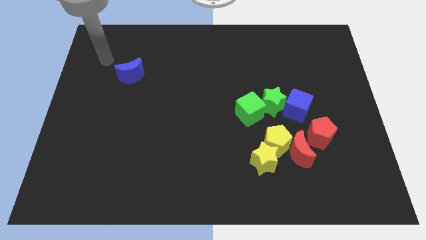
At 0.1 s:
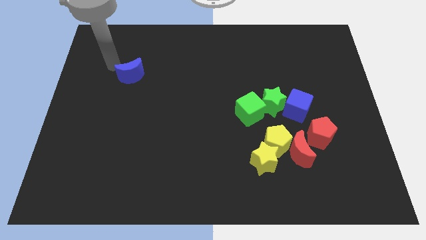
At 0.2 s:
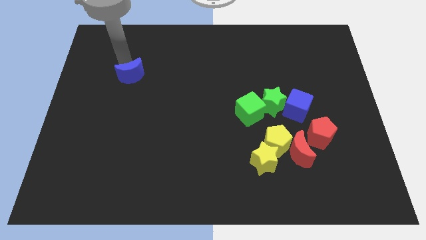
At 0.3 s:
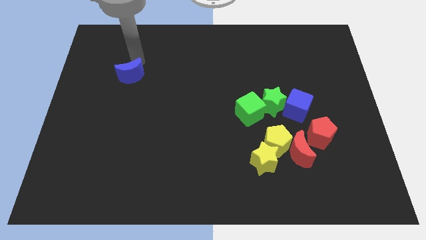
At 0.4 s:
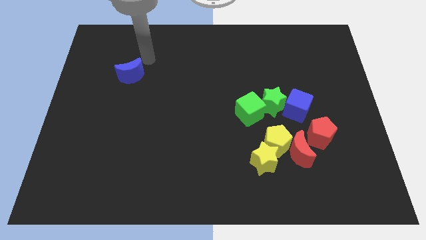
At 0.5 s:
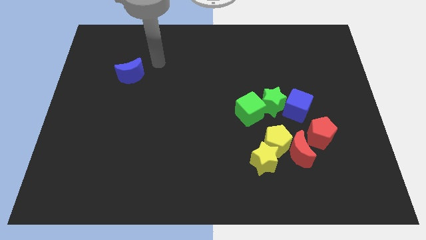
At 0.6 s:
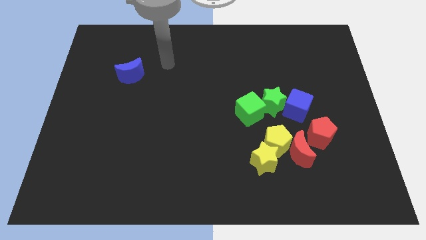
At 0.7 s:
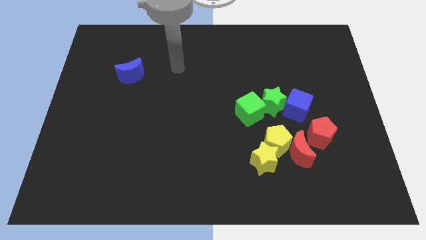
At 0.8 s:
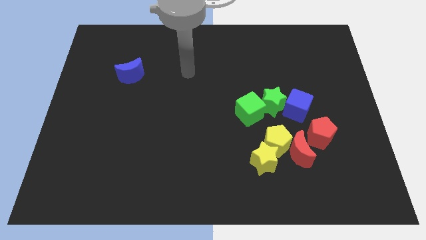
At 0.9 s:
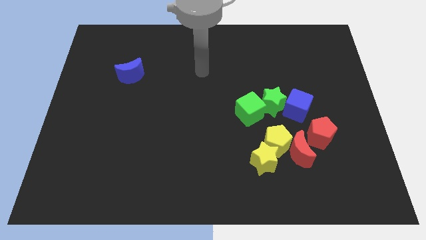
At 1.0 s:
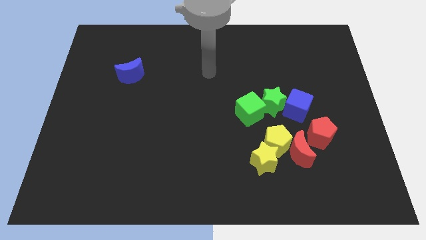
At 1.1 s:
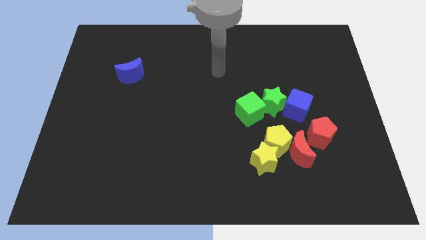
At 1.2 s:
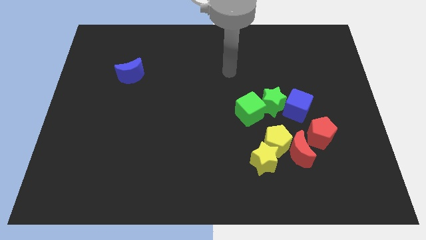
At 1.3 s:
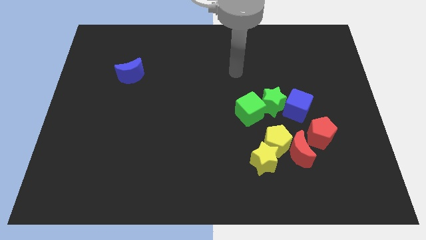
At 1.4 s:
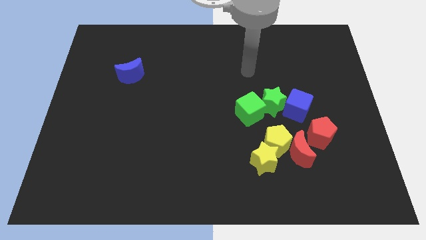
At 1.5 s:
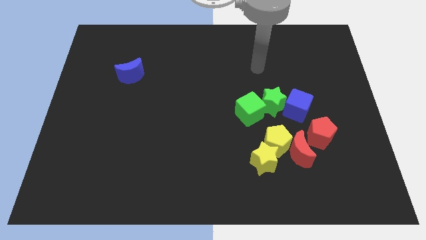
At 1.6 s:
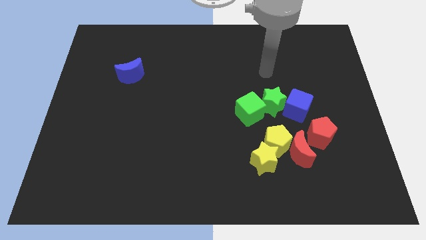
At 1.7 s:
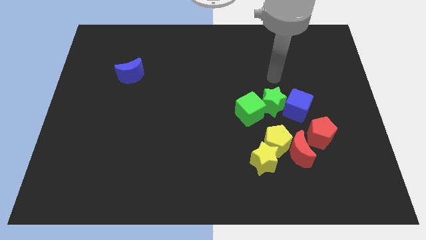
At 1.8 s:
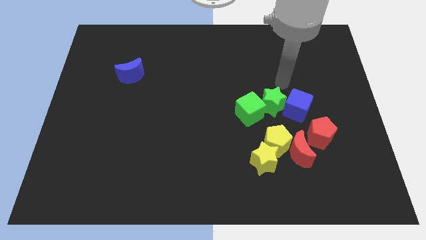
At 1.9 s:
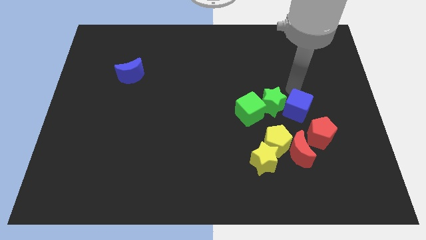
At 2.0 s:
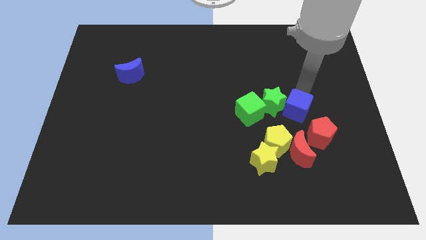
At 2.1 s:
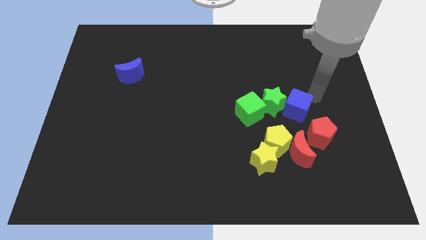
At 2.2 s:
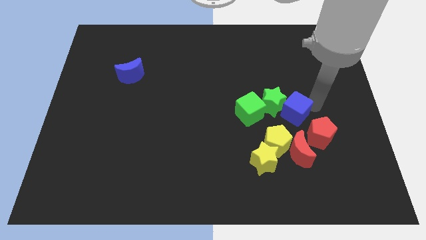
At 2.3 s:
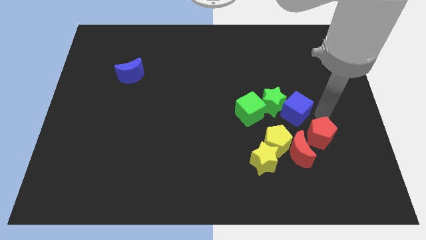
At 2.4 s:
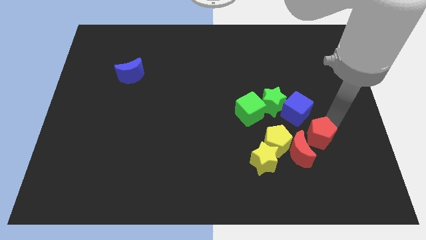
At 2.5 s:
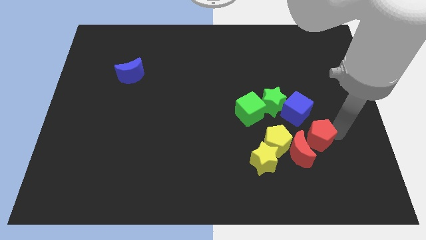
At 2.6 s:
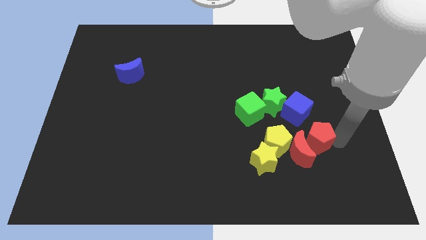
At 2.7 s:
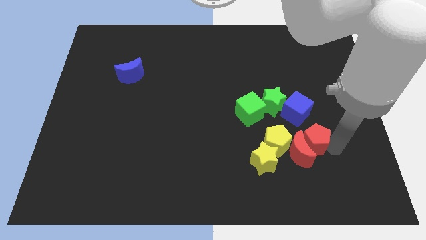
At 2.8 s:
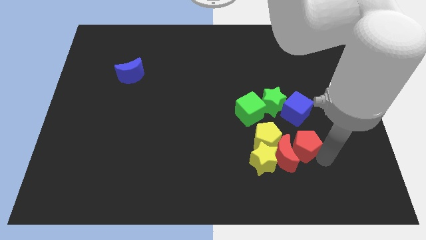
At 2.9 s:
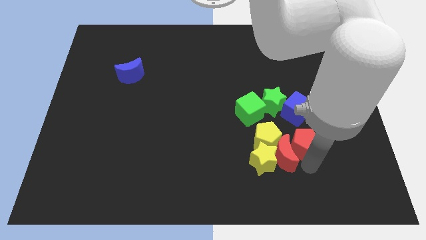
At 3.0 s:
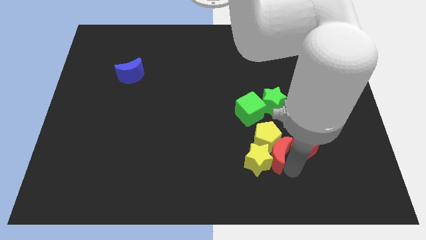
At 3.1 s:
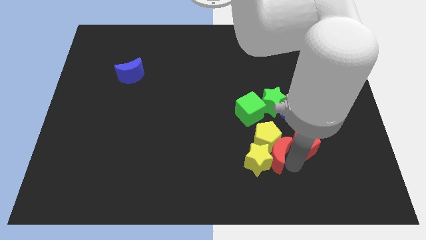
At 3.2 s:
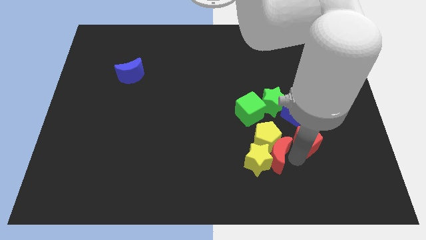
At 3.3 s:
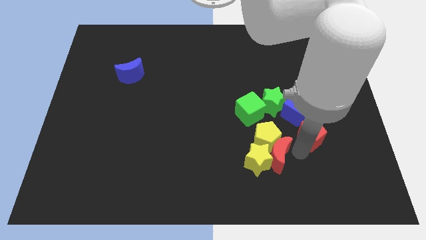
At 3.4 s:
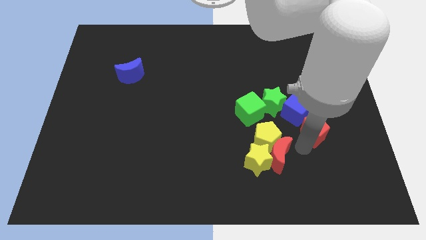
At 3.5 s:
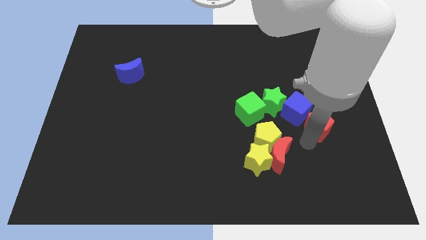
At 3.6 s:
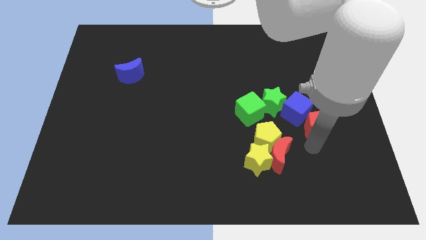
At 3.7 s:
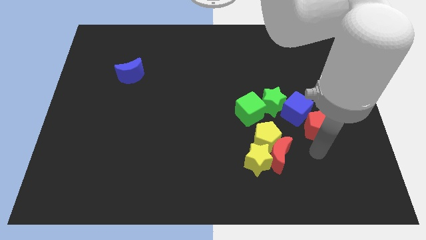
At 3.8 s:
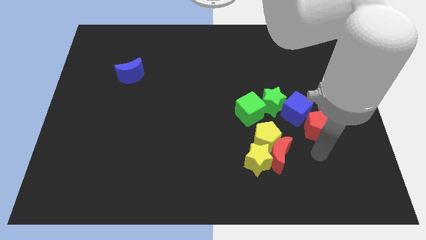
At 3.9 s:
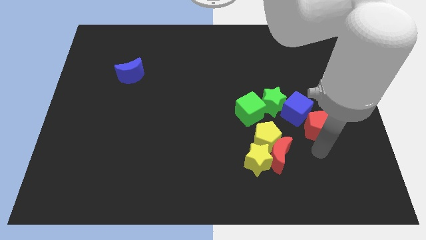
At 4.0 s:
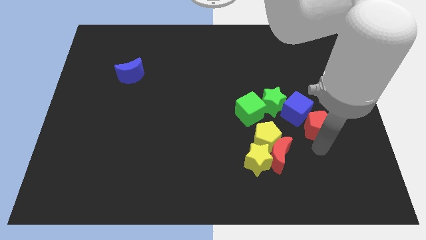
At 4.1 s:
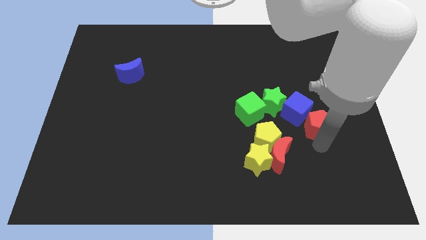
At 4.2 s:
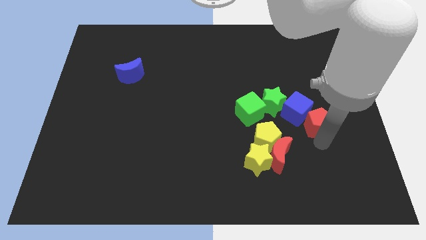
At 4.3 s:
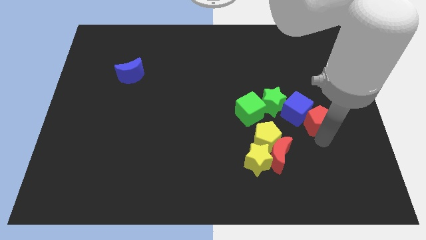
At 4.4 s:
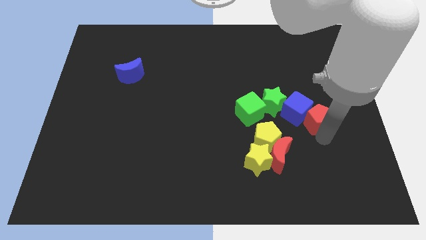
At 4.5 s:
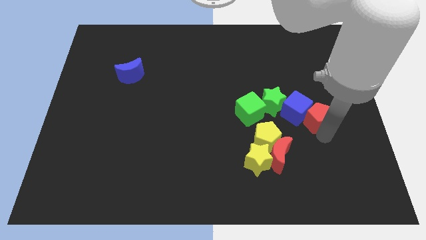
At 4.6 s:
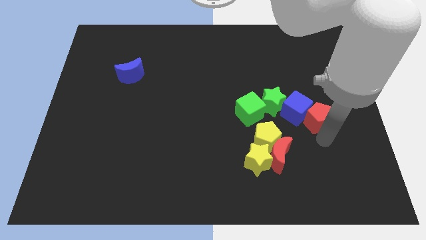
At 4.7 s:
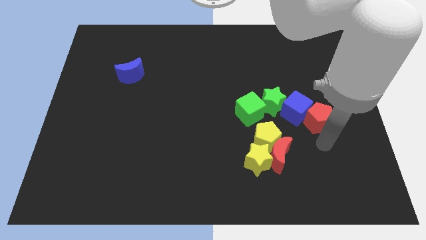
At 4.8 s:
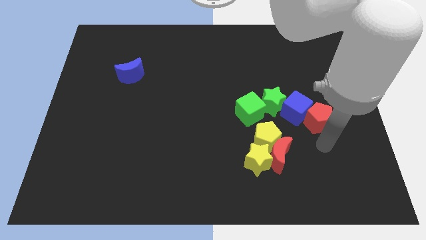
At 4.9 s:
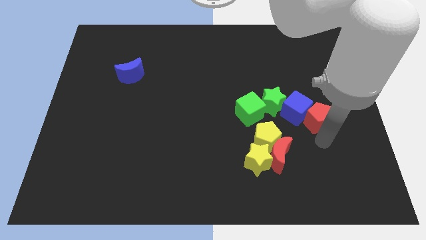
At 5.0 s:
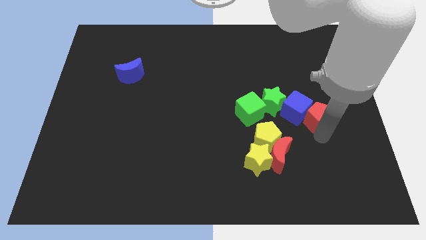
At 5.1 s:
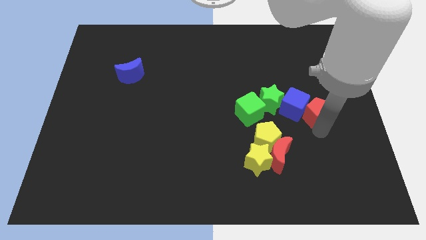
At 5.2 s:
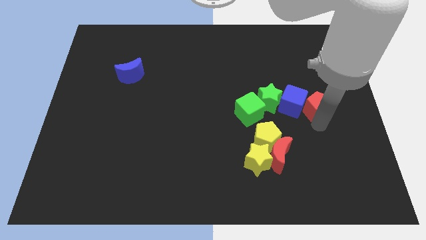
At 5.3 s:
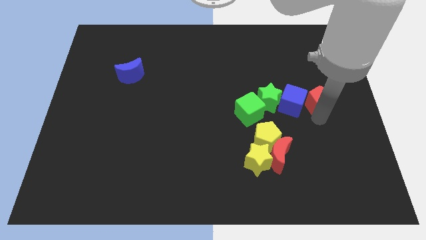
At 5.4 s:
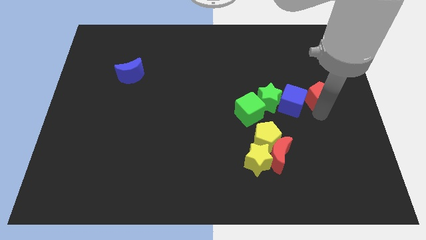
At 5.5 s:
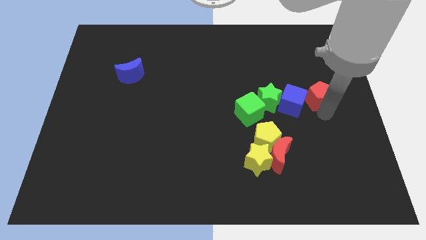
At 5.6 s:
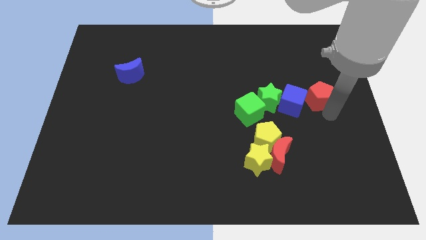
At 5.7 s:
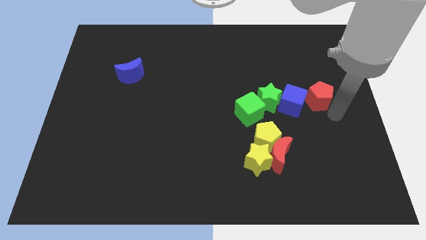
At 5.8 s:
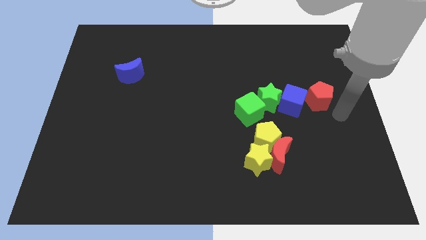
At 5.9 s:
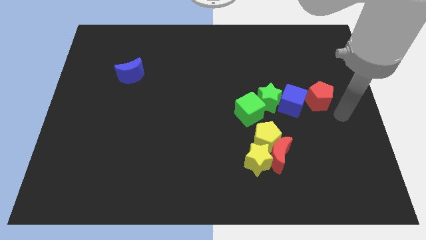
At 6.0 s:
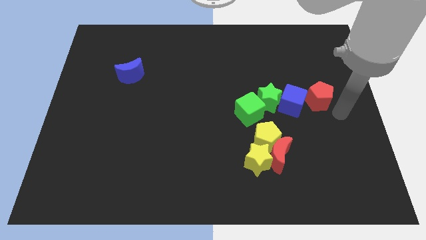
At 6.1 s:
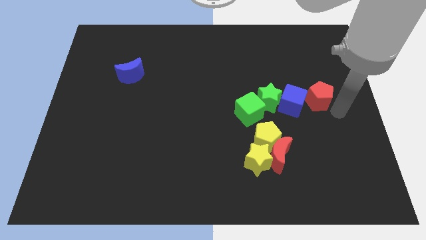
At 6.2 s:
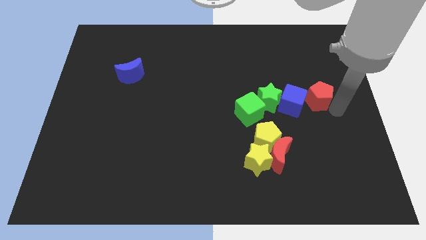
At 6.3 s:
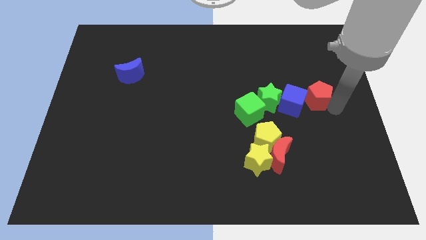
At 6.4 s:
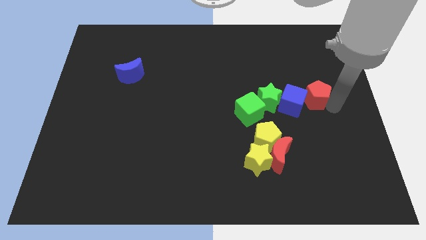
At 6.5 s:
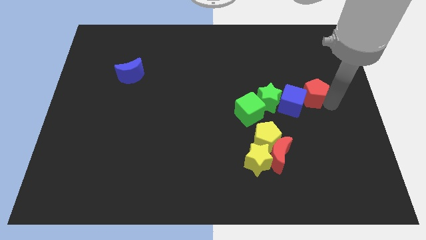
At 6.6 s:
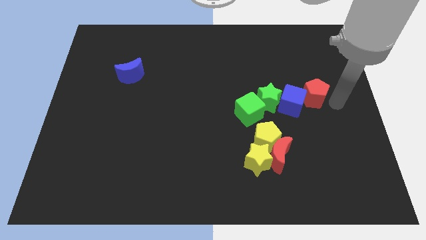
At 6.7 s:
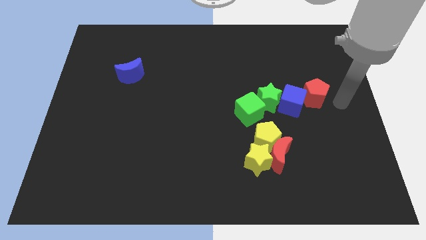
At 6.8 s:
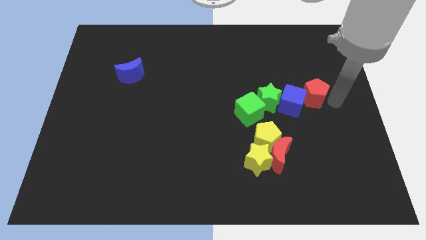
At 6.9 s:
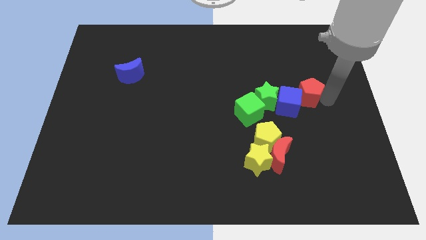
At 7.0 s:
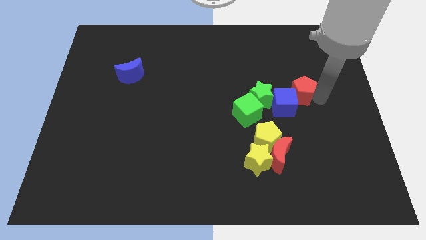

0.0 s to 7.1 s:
slightly move the red pentagon upwards and to the left diagonally

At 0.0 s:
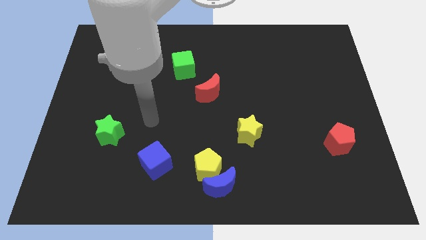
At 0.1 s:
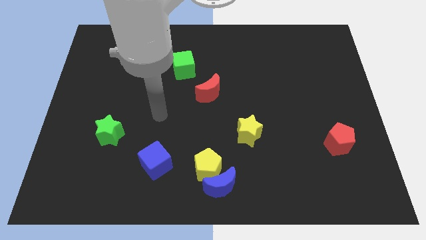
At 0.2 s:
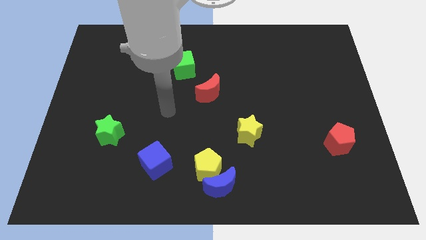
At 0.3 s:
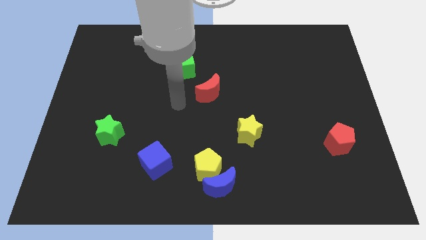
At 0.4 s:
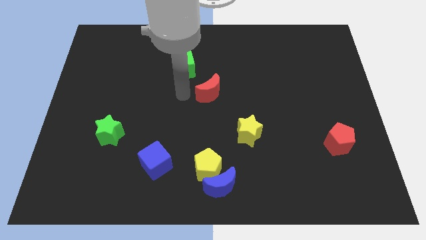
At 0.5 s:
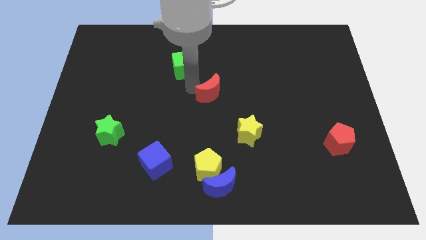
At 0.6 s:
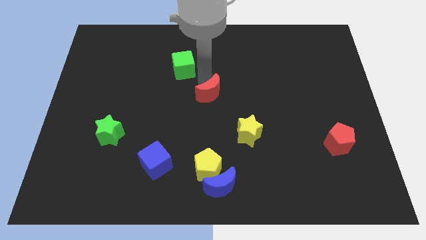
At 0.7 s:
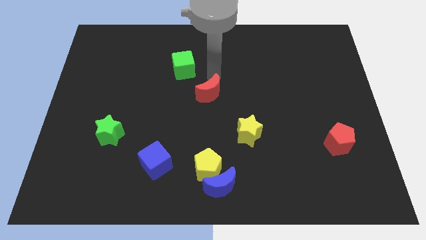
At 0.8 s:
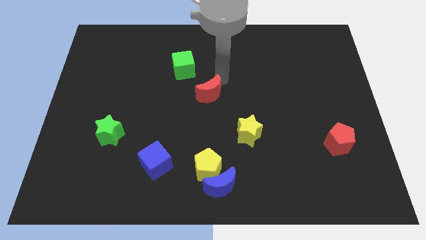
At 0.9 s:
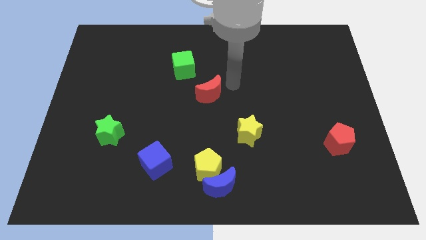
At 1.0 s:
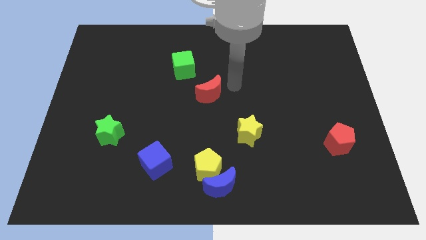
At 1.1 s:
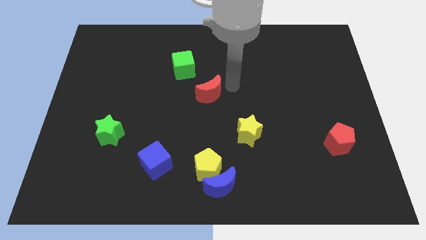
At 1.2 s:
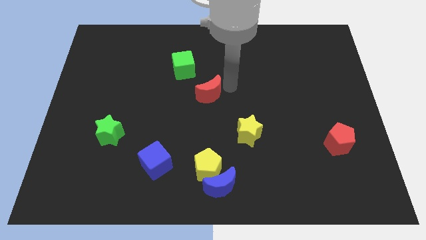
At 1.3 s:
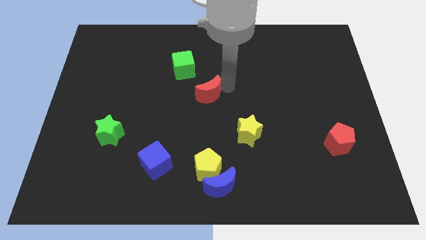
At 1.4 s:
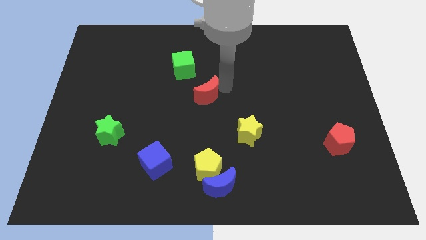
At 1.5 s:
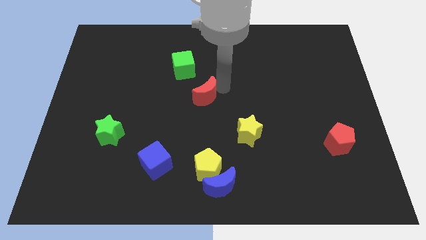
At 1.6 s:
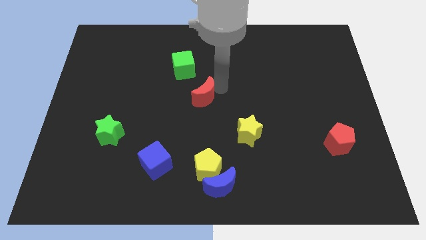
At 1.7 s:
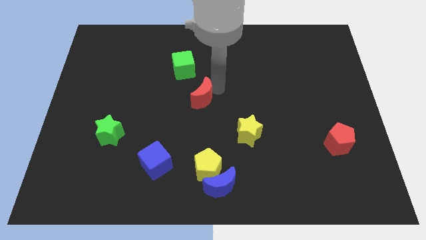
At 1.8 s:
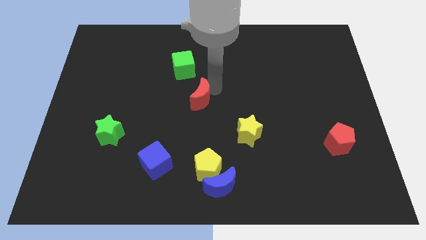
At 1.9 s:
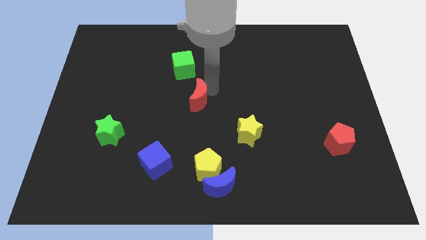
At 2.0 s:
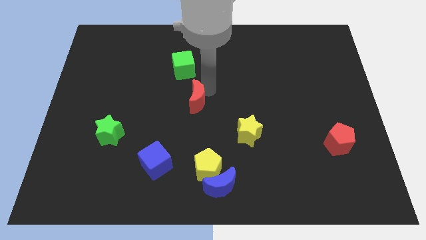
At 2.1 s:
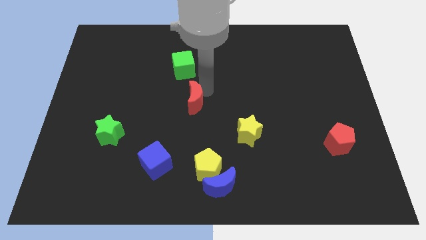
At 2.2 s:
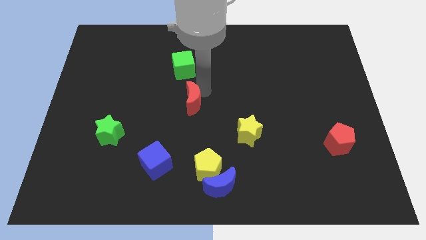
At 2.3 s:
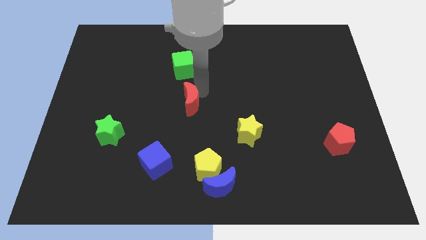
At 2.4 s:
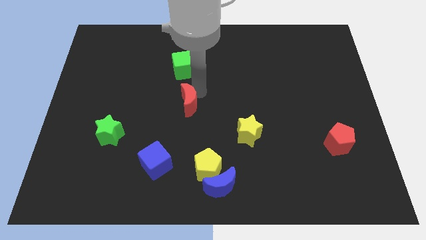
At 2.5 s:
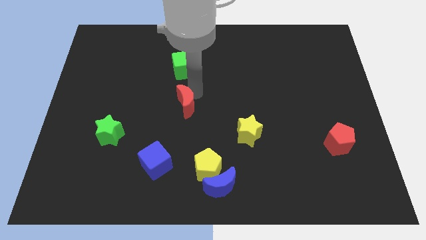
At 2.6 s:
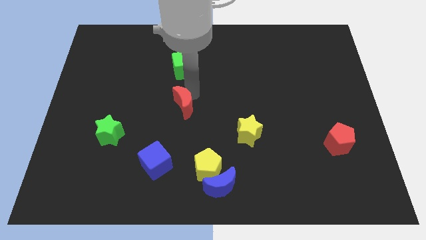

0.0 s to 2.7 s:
move the red moon downwards and then left a little
